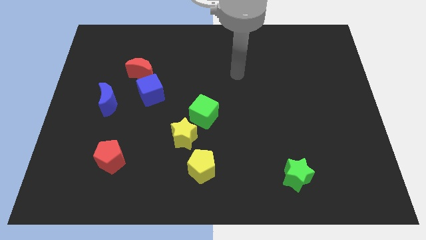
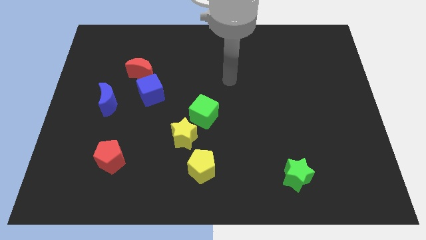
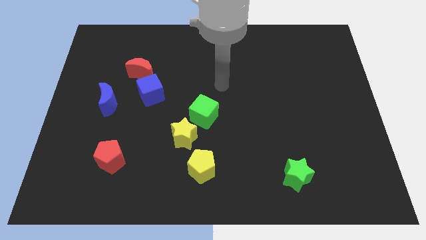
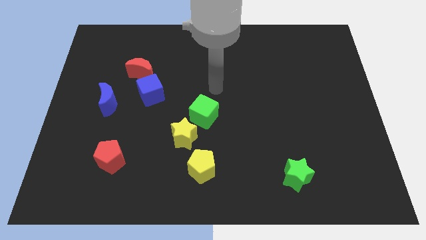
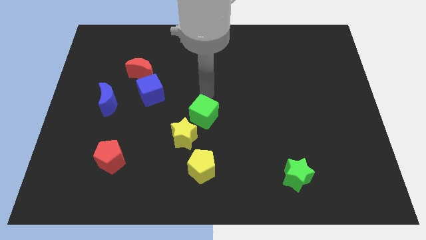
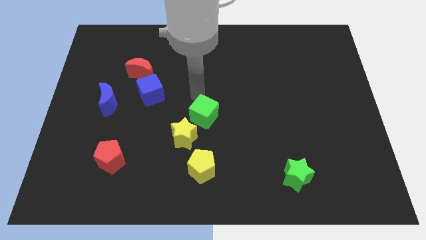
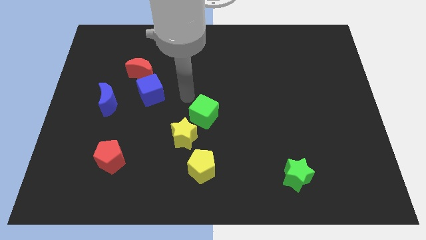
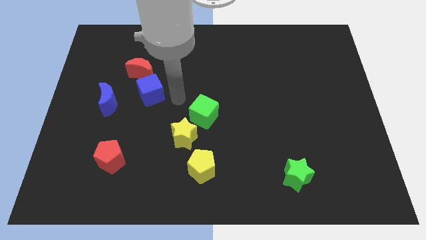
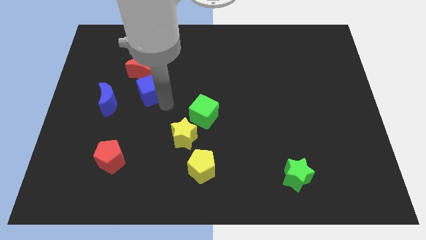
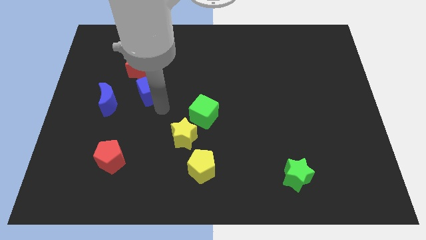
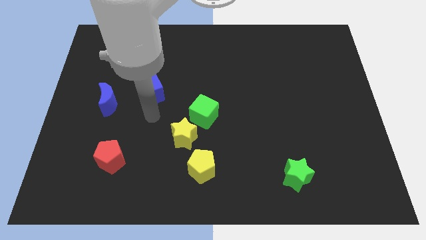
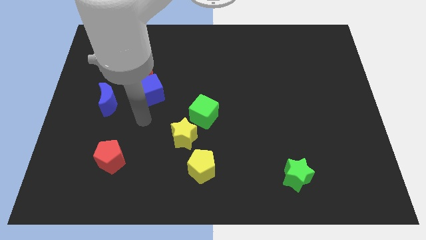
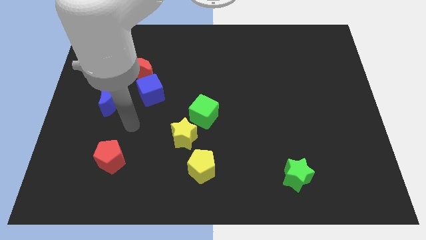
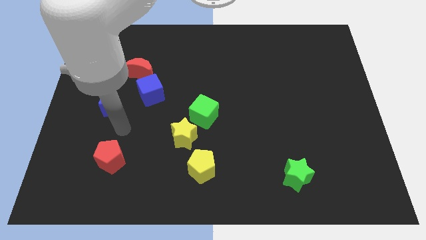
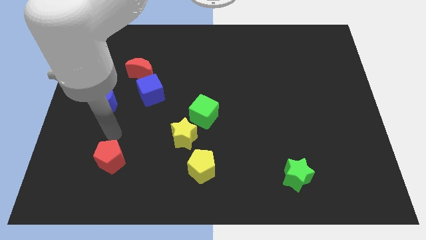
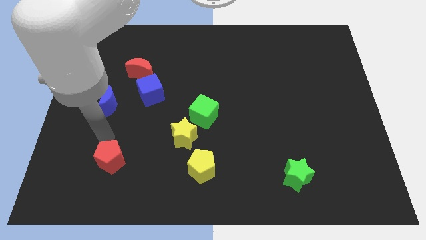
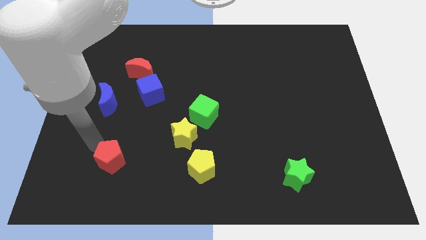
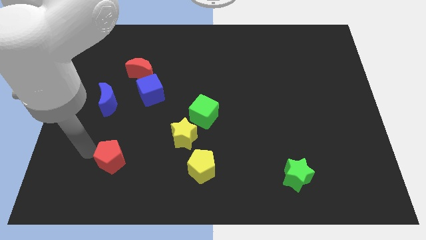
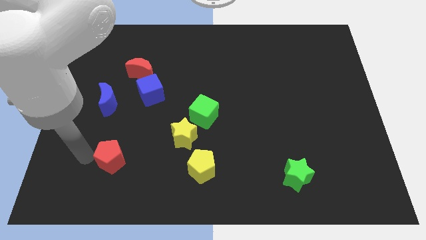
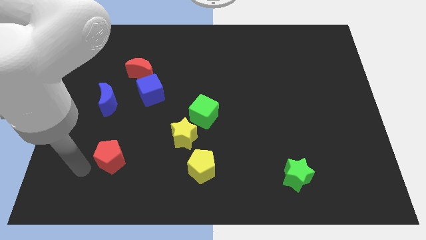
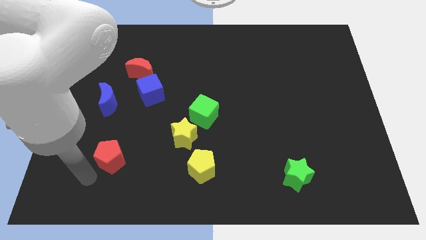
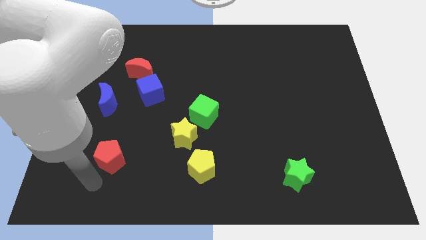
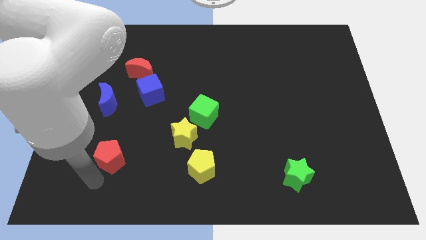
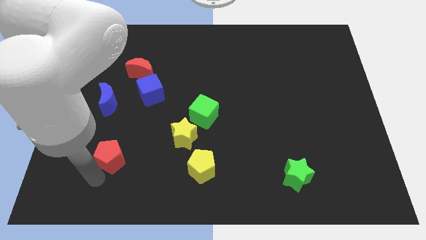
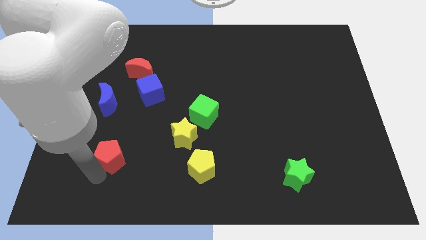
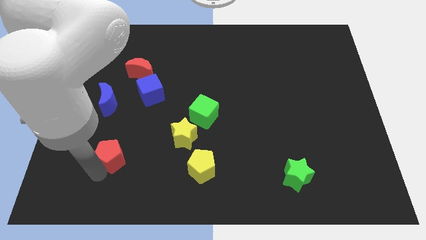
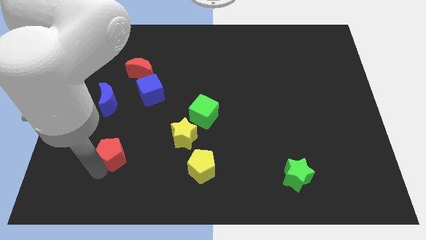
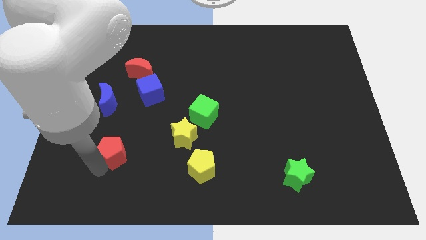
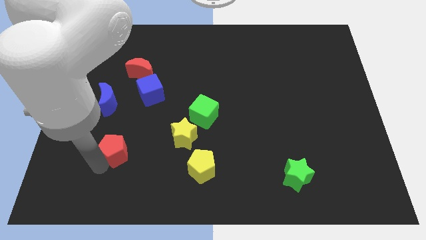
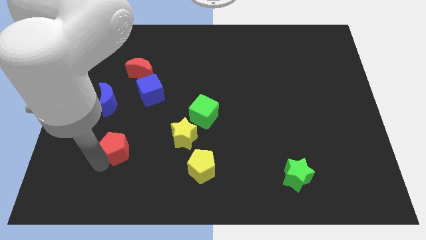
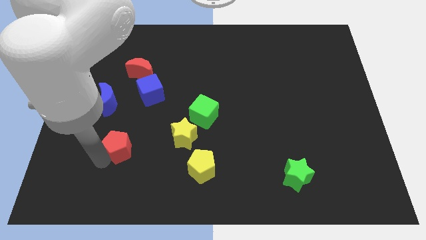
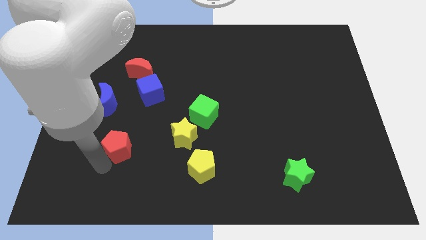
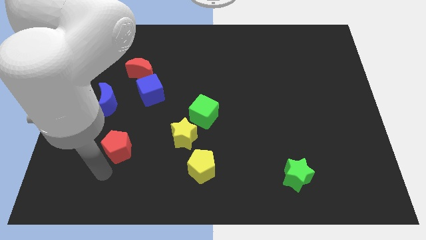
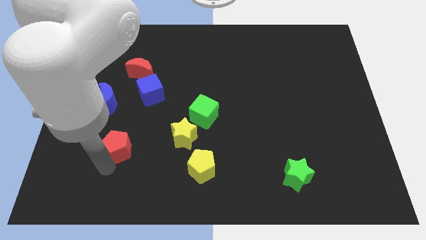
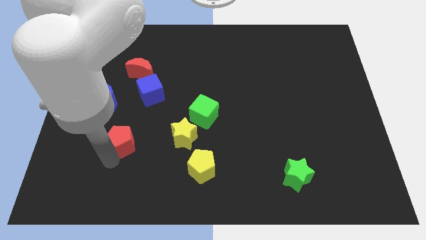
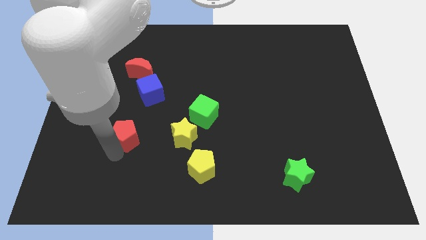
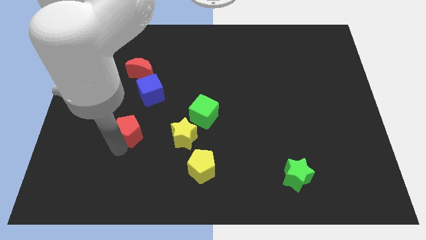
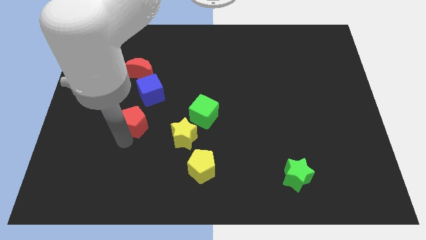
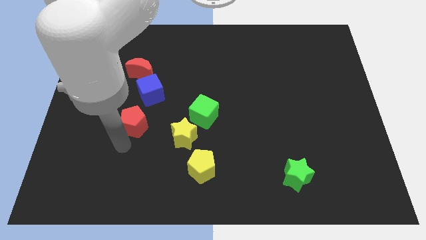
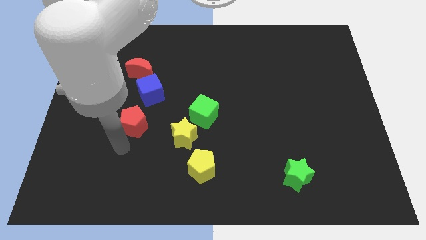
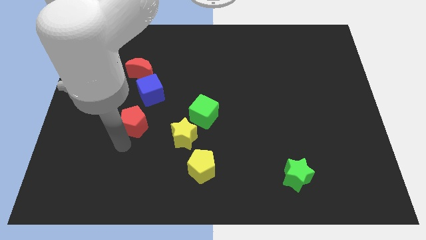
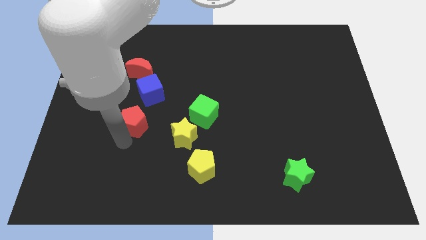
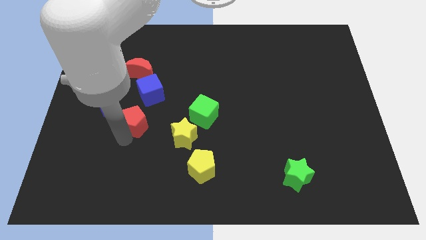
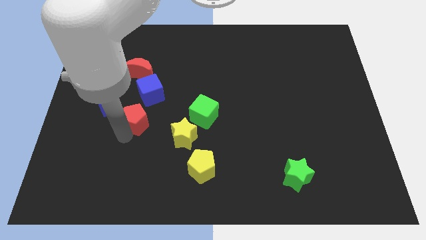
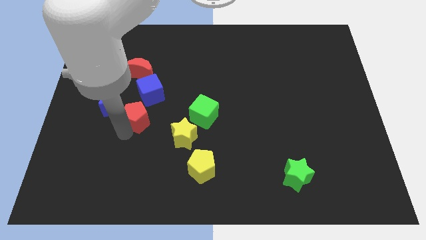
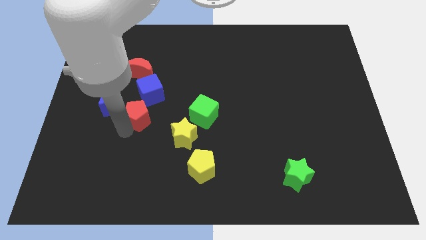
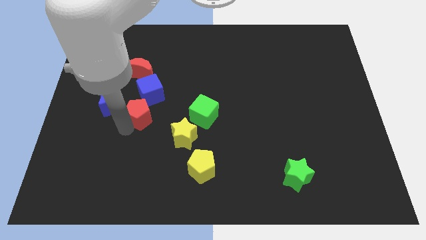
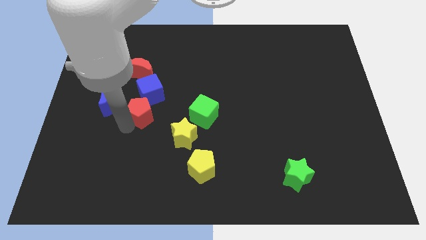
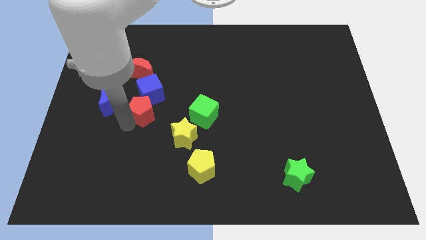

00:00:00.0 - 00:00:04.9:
push the red pentagon to the blue cube

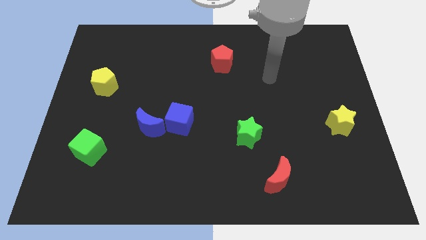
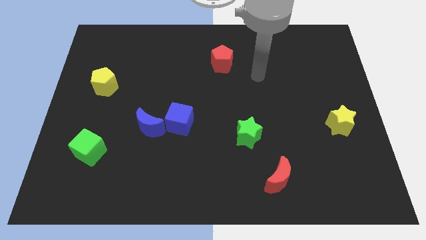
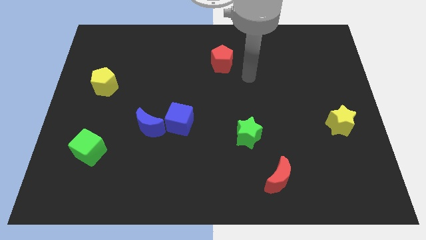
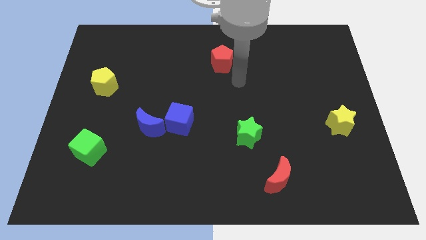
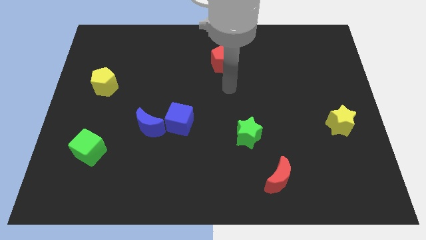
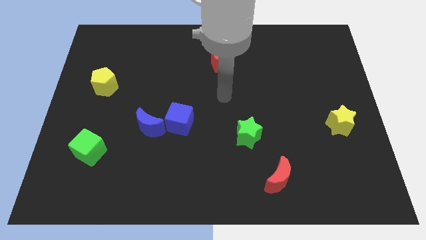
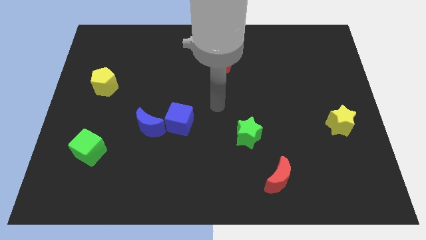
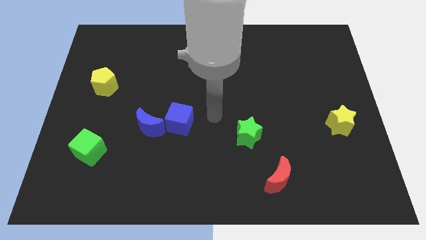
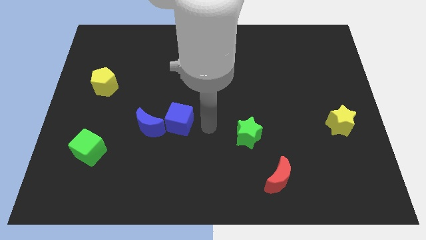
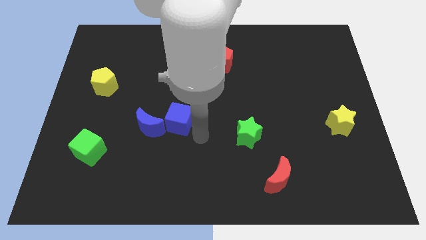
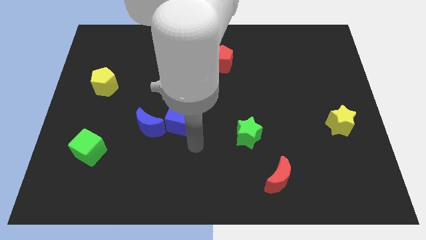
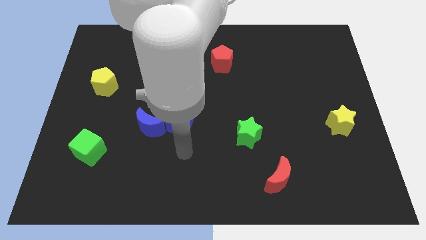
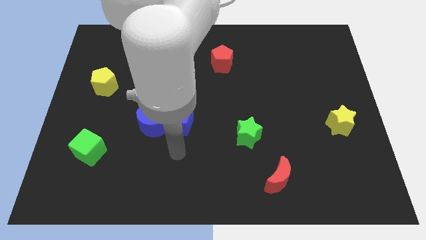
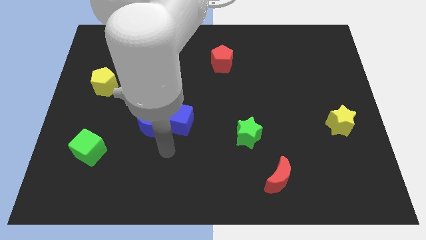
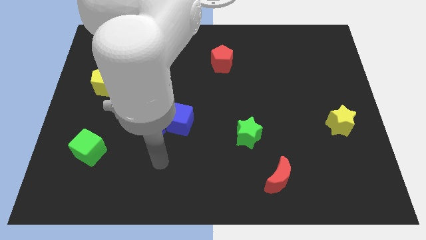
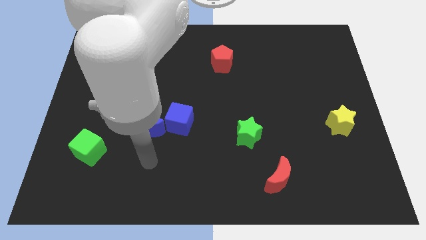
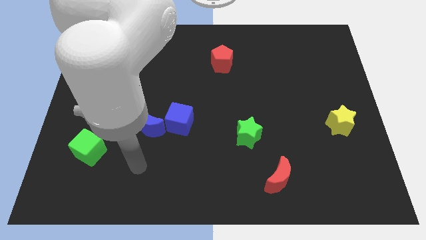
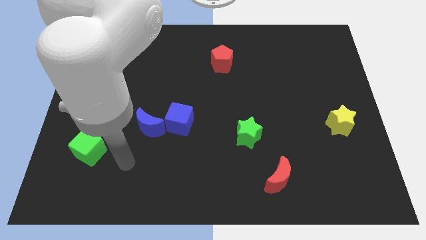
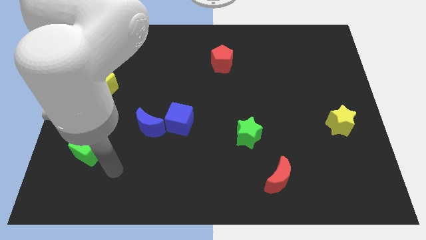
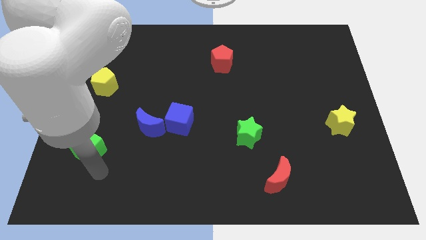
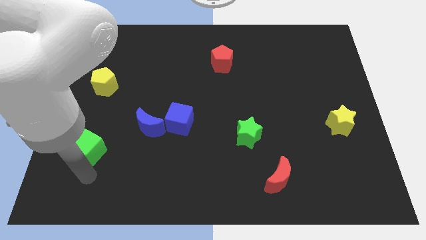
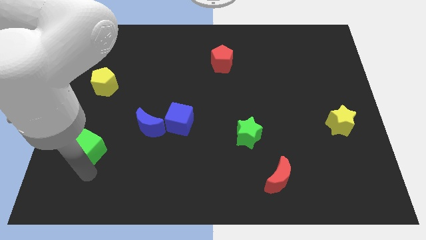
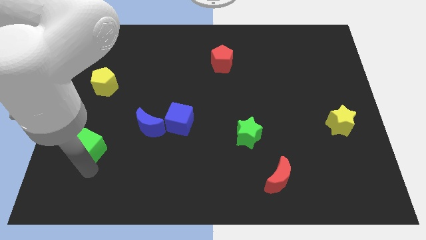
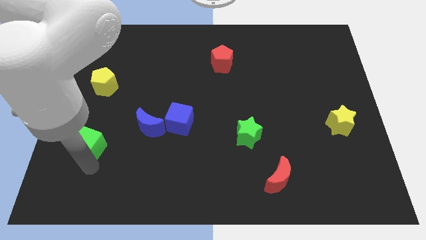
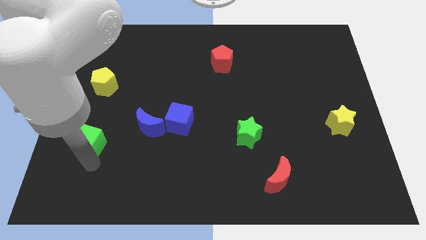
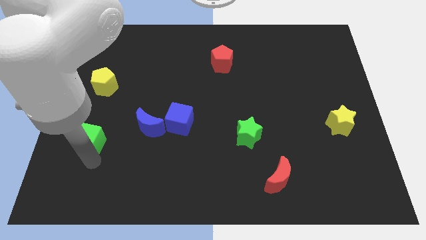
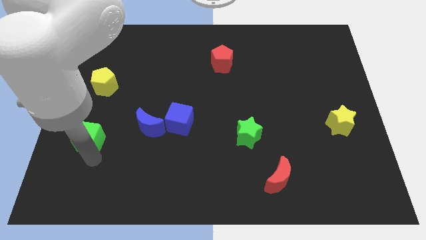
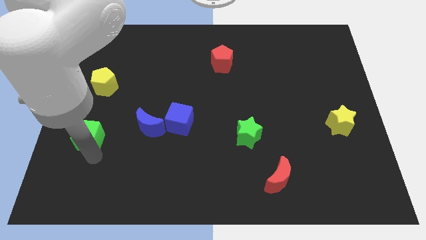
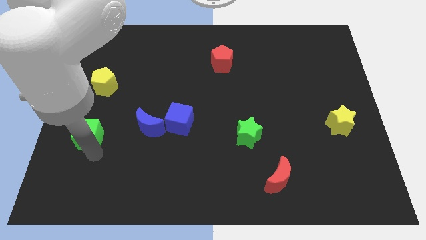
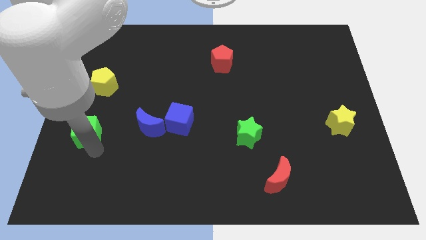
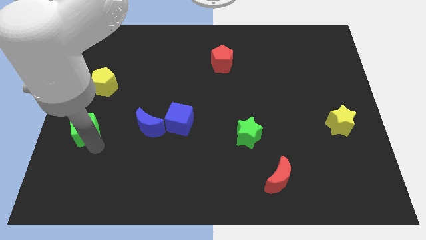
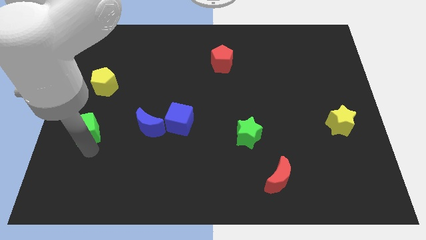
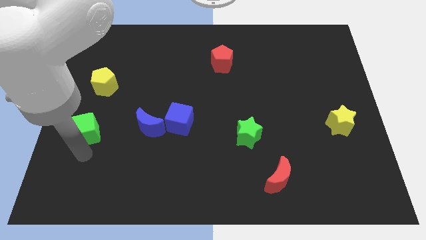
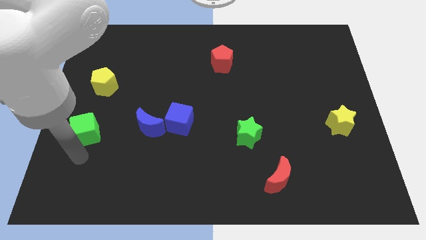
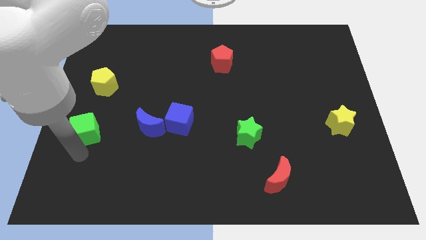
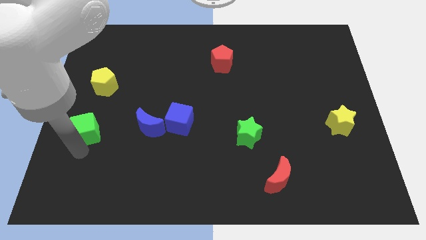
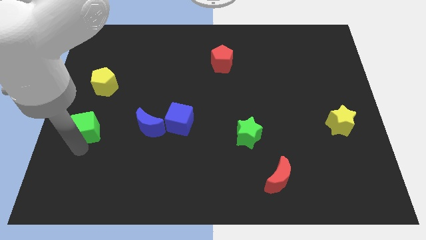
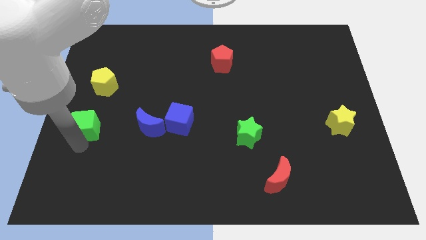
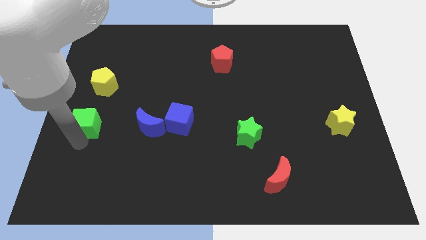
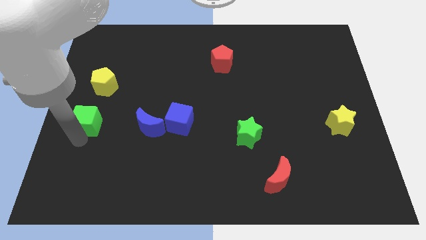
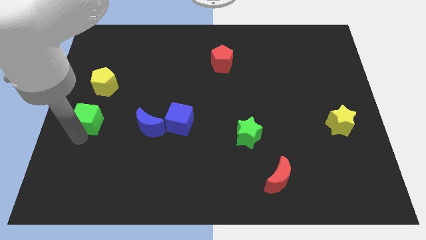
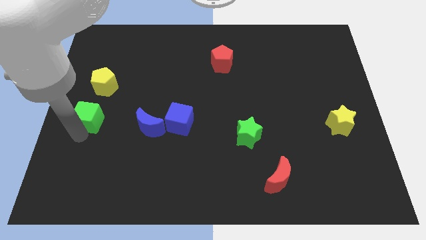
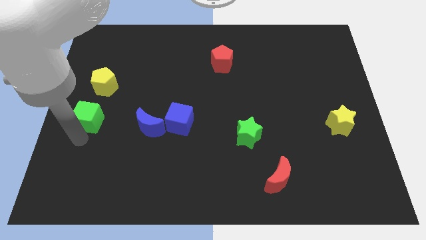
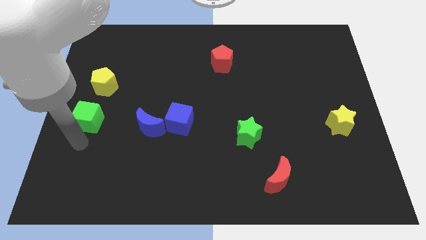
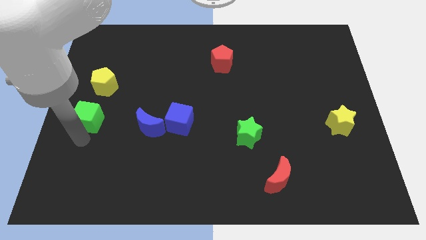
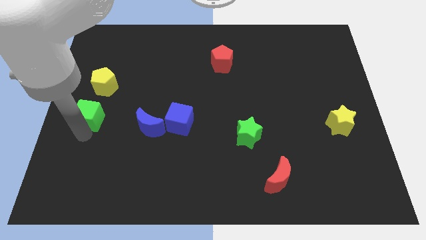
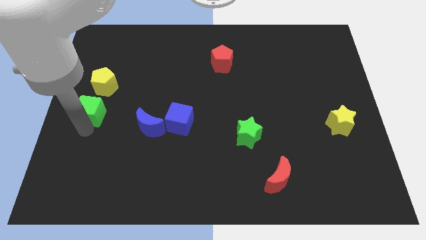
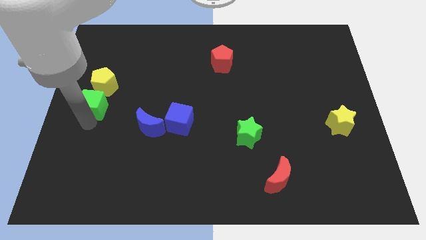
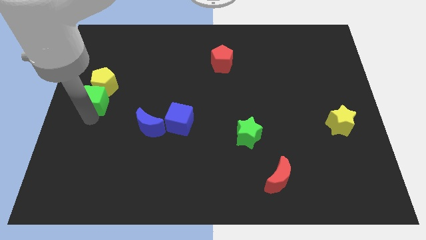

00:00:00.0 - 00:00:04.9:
push the green cube next to the yellow pentagon
